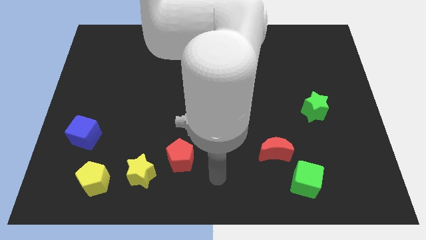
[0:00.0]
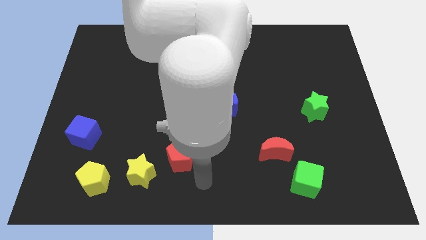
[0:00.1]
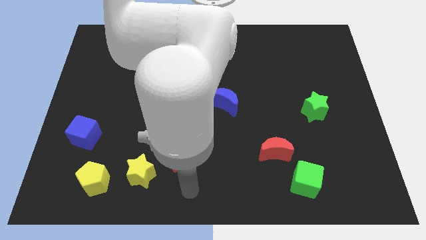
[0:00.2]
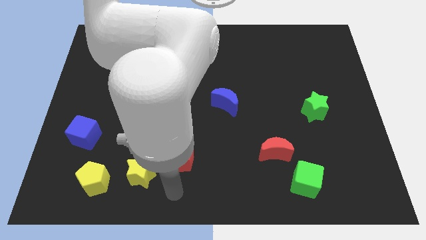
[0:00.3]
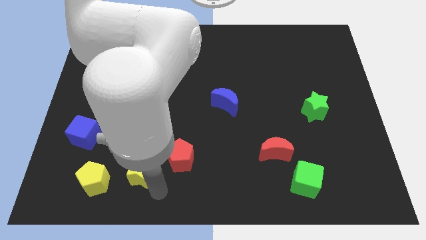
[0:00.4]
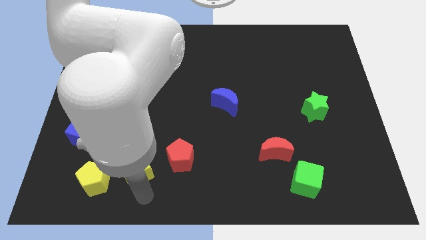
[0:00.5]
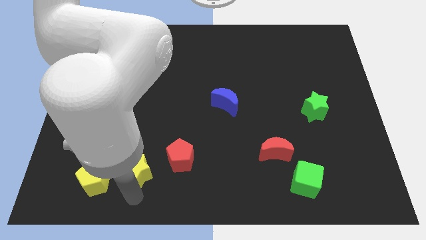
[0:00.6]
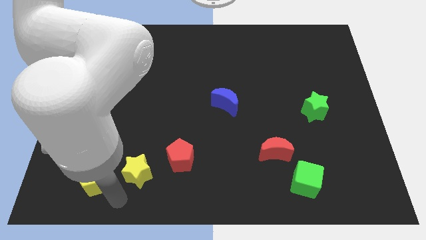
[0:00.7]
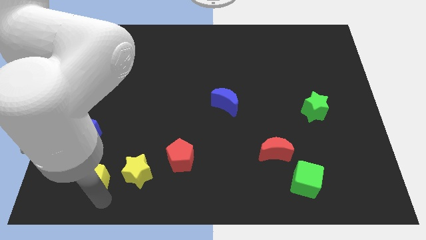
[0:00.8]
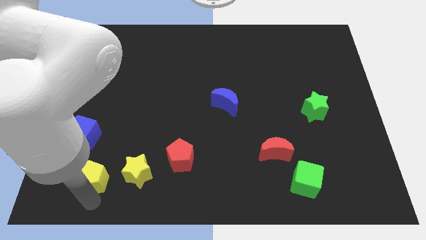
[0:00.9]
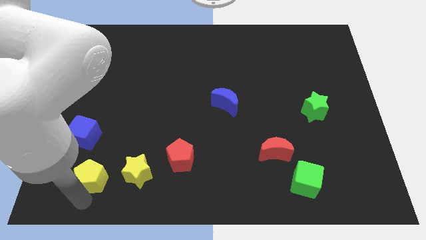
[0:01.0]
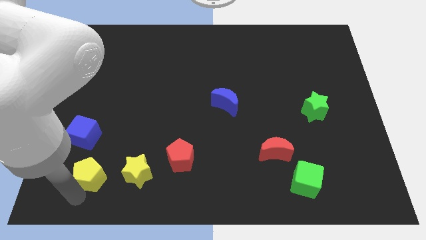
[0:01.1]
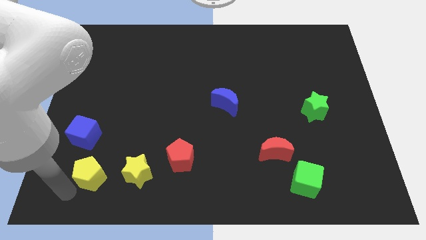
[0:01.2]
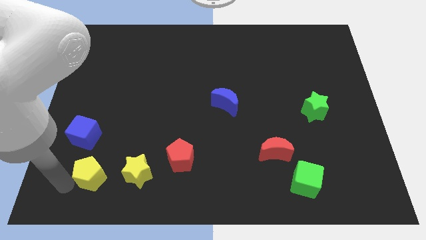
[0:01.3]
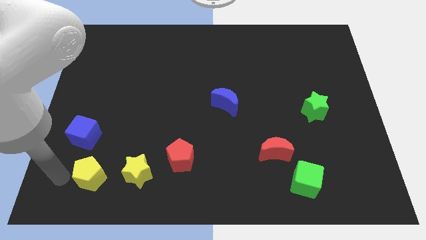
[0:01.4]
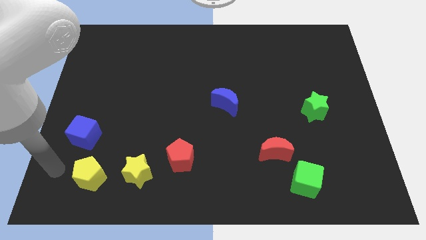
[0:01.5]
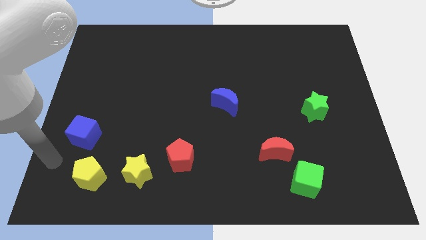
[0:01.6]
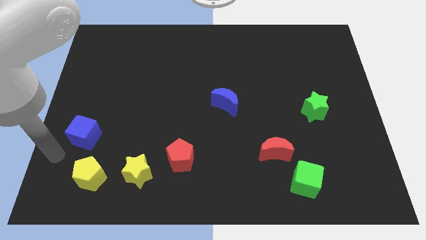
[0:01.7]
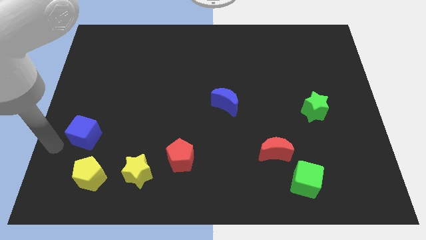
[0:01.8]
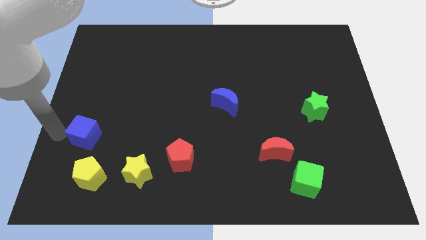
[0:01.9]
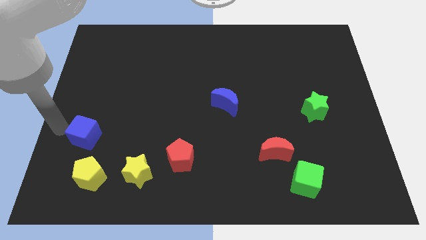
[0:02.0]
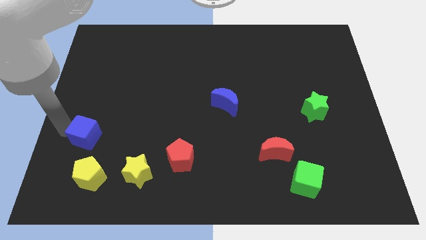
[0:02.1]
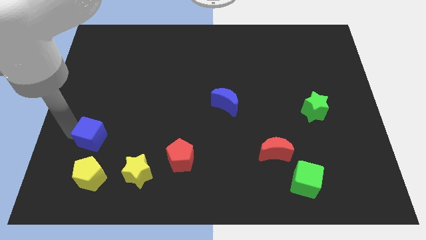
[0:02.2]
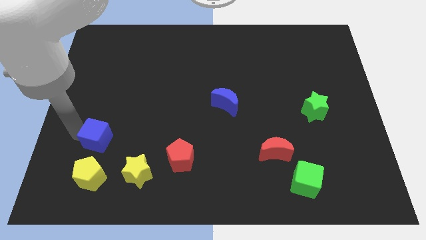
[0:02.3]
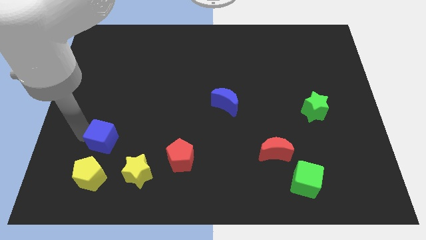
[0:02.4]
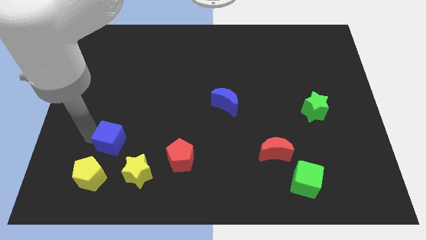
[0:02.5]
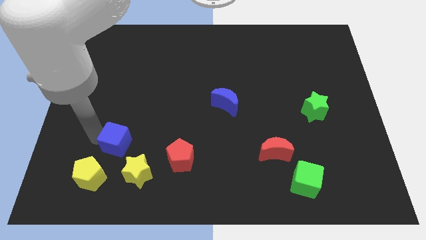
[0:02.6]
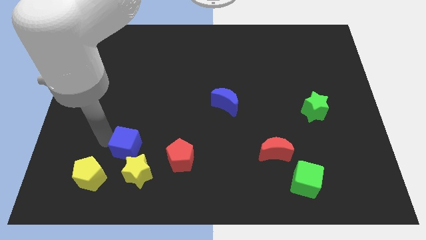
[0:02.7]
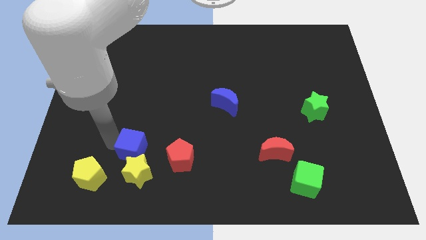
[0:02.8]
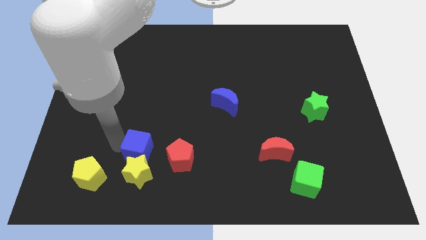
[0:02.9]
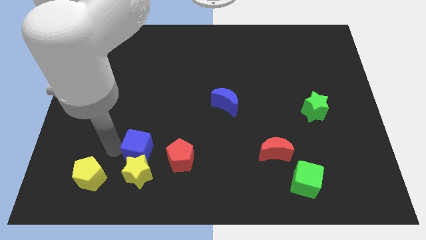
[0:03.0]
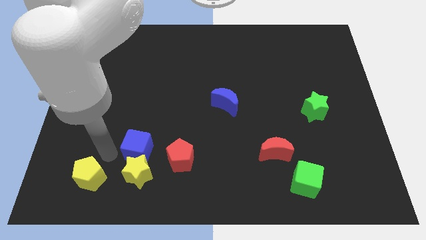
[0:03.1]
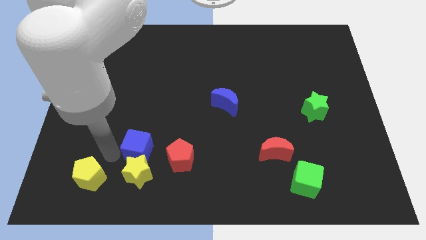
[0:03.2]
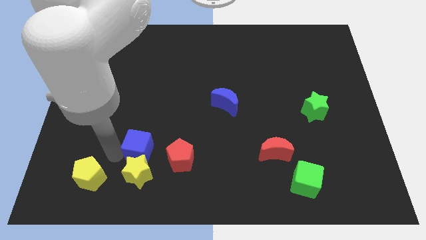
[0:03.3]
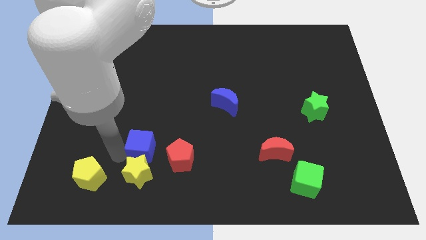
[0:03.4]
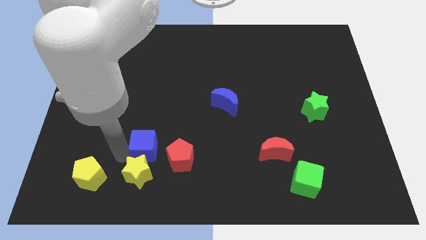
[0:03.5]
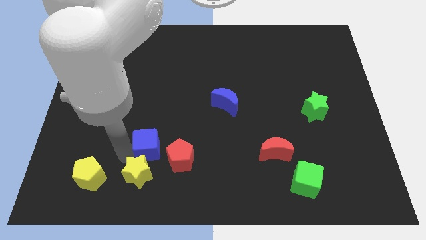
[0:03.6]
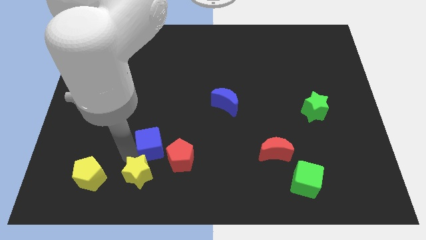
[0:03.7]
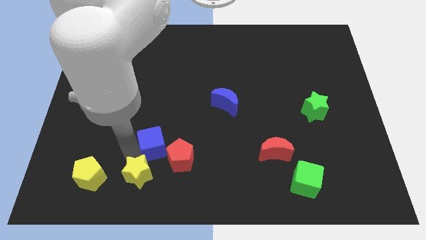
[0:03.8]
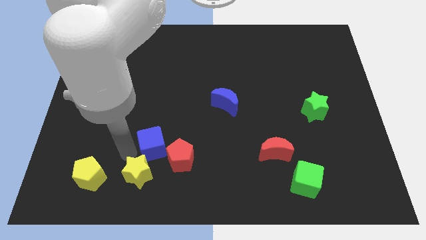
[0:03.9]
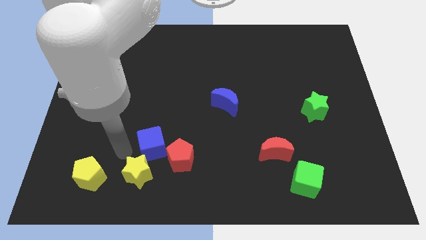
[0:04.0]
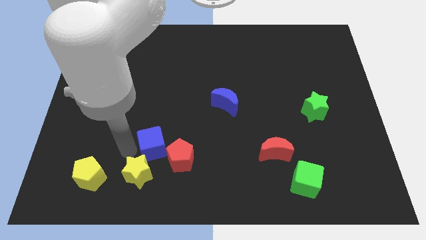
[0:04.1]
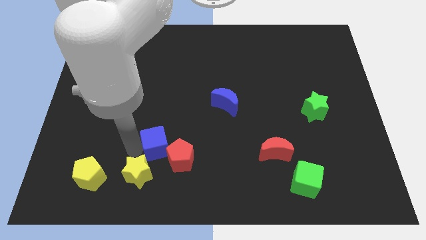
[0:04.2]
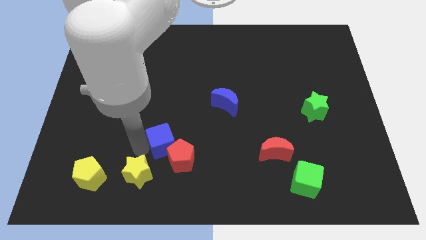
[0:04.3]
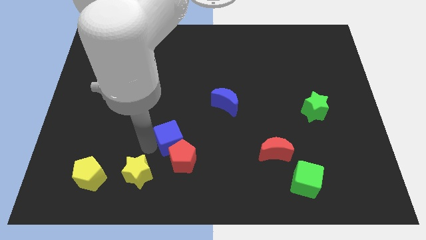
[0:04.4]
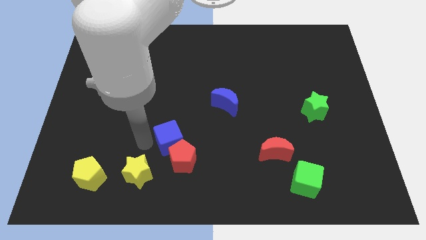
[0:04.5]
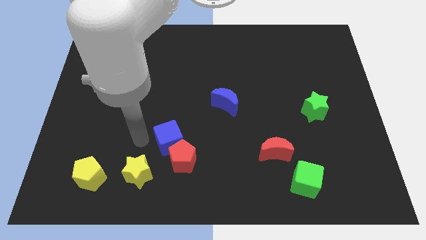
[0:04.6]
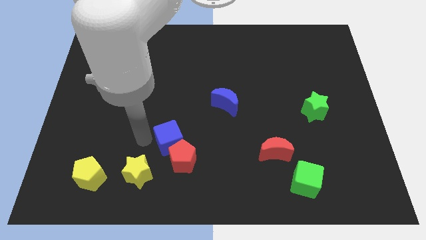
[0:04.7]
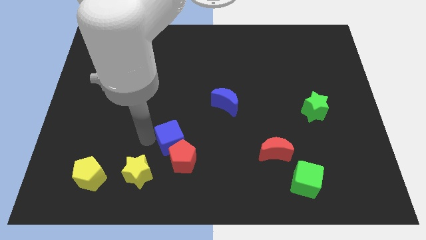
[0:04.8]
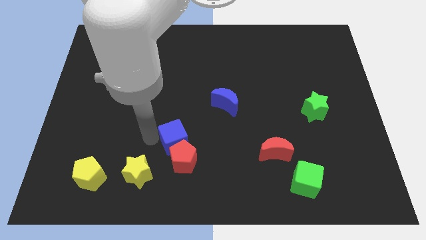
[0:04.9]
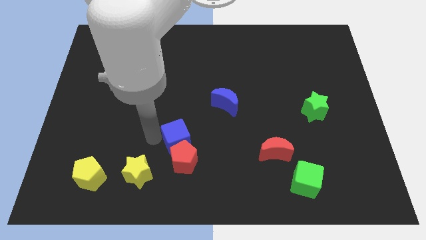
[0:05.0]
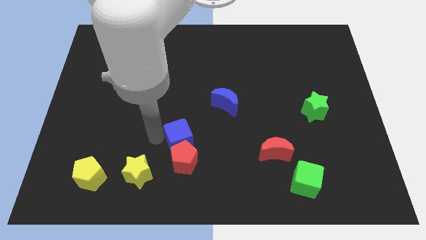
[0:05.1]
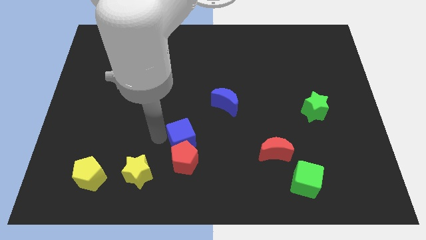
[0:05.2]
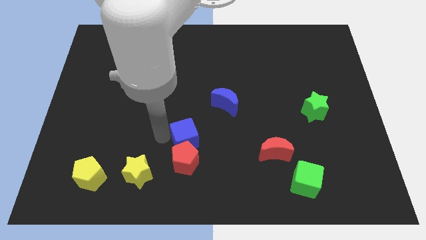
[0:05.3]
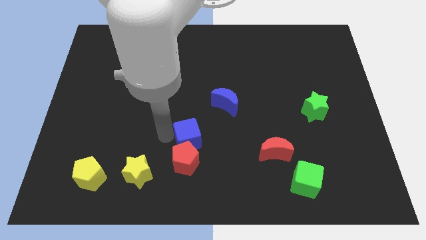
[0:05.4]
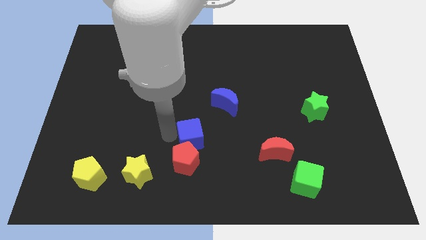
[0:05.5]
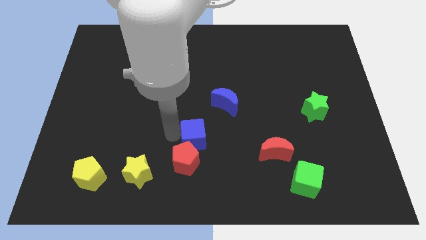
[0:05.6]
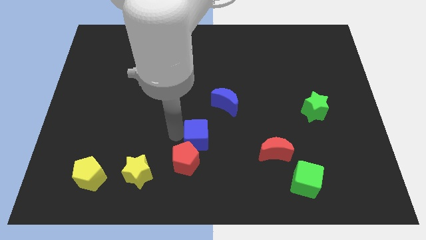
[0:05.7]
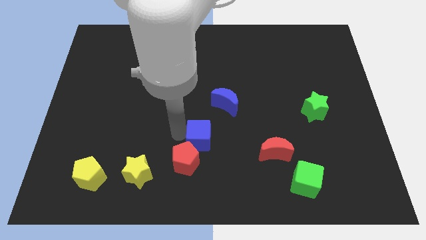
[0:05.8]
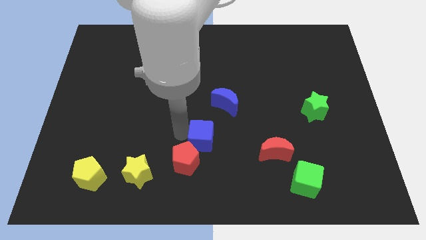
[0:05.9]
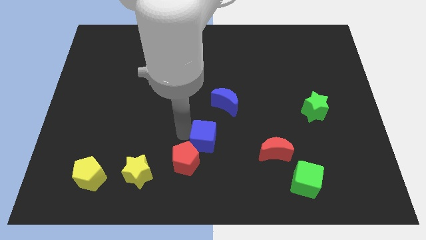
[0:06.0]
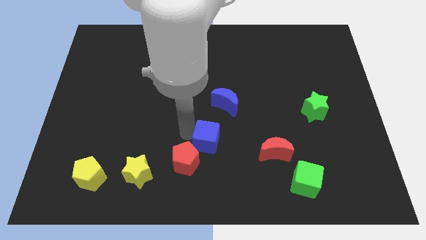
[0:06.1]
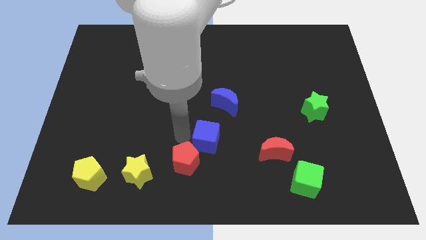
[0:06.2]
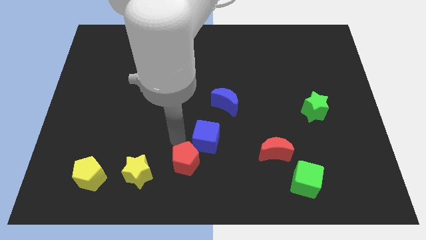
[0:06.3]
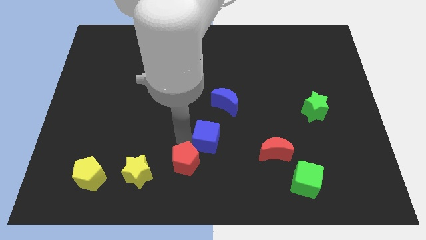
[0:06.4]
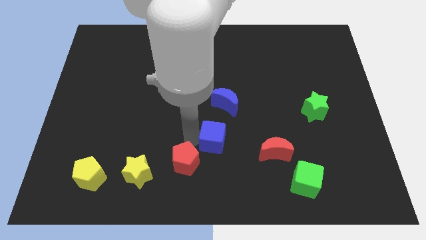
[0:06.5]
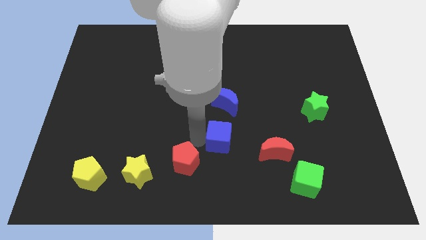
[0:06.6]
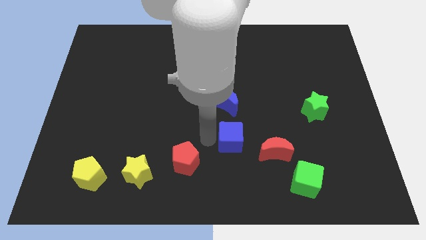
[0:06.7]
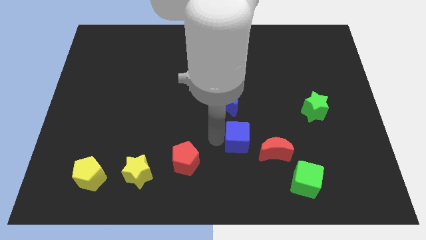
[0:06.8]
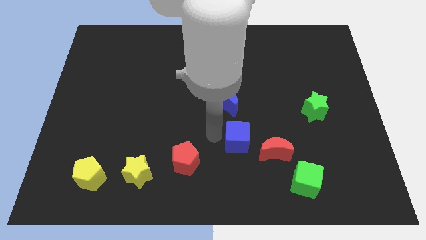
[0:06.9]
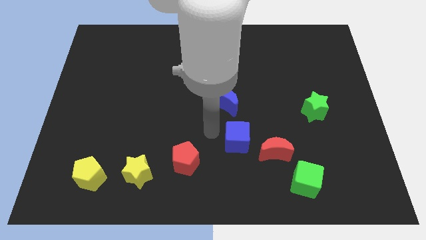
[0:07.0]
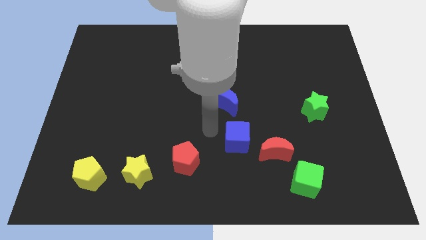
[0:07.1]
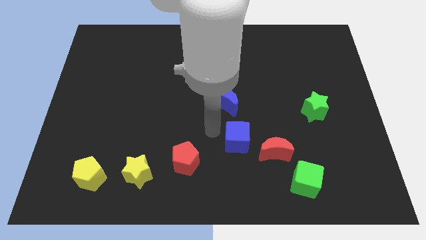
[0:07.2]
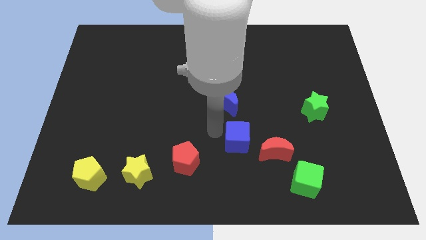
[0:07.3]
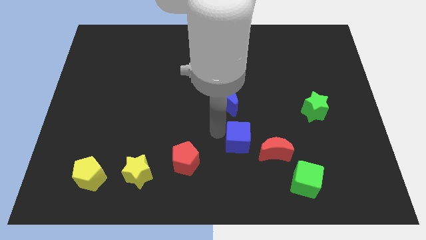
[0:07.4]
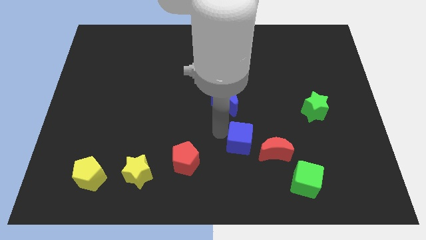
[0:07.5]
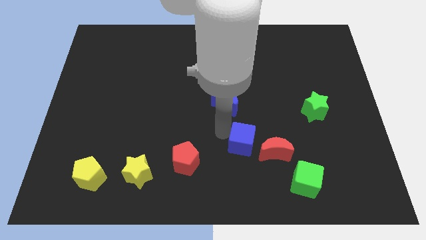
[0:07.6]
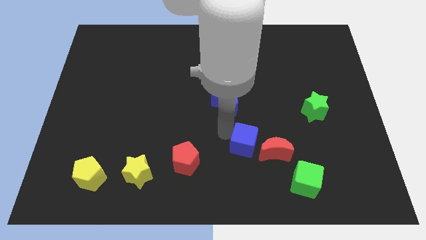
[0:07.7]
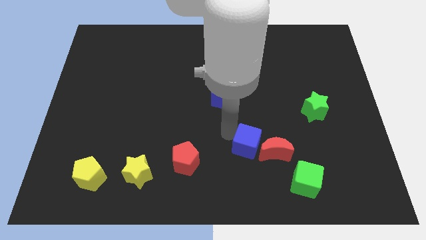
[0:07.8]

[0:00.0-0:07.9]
put the blue cube to the red moon
